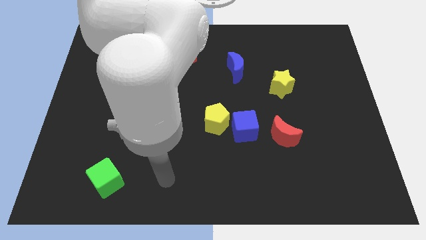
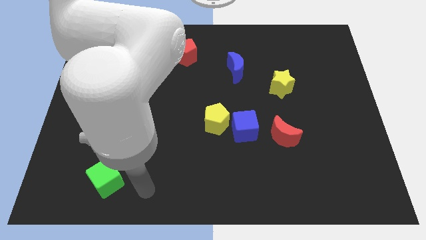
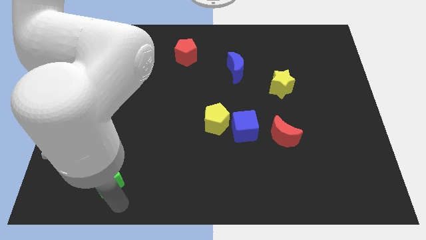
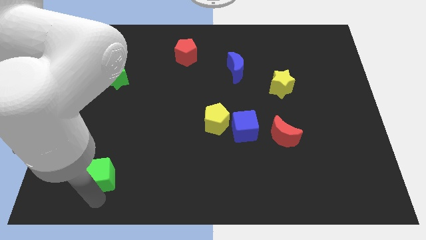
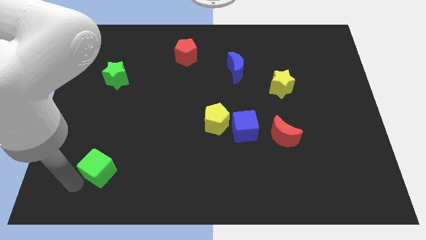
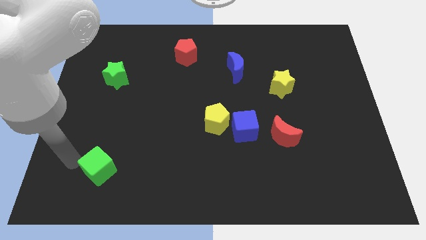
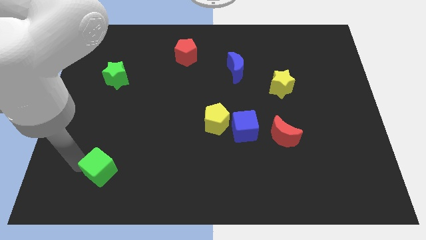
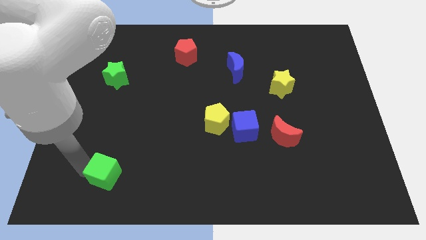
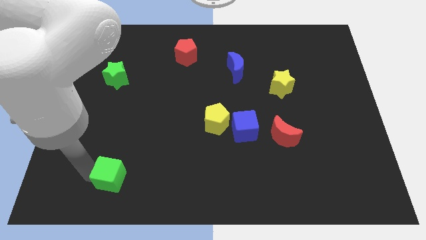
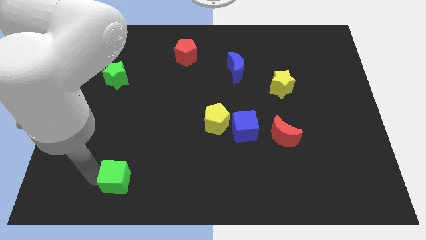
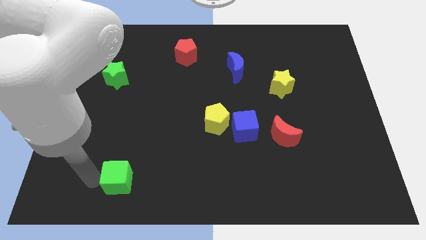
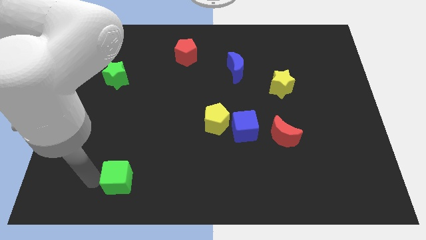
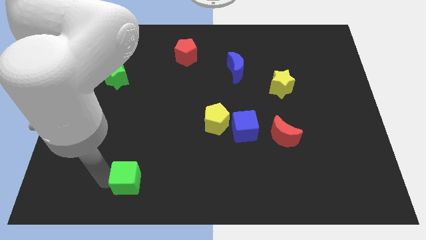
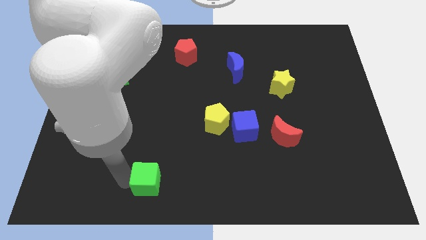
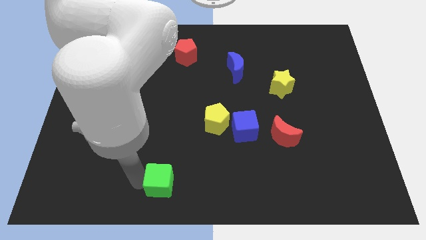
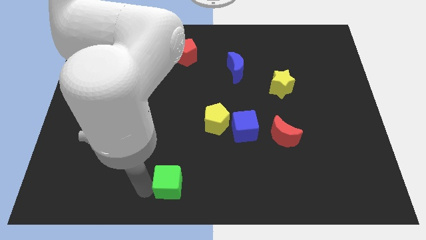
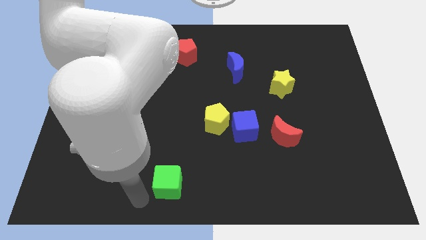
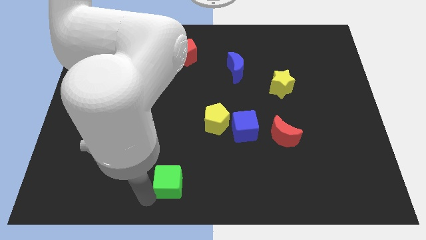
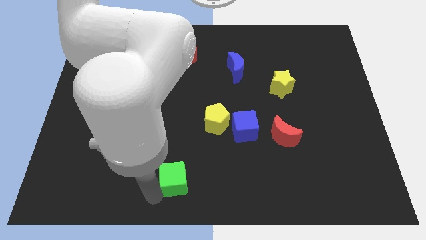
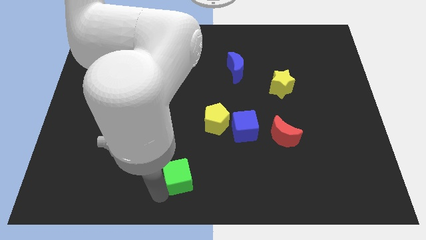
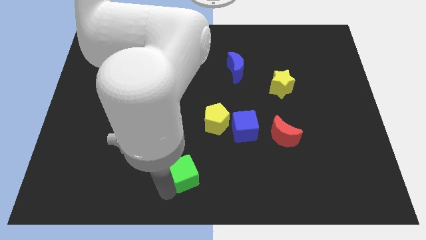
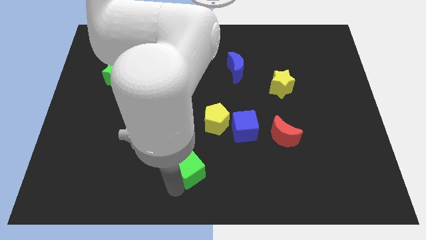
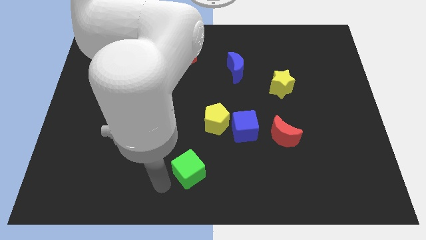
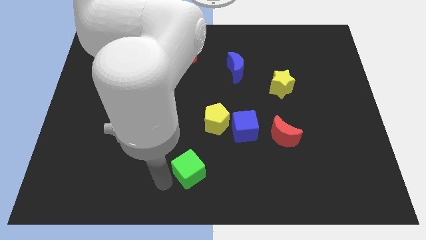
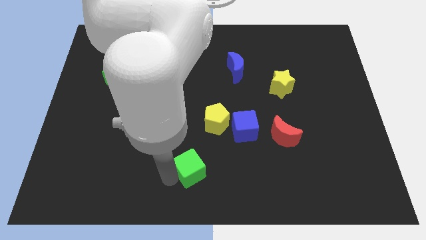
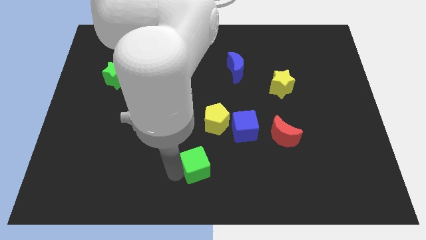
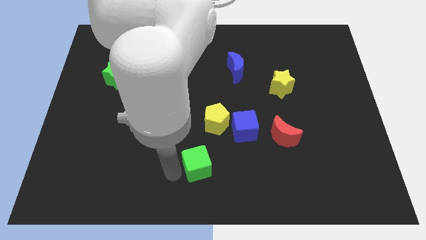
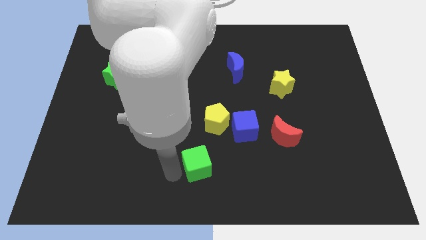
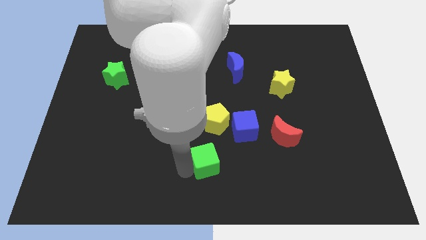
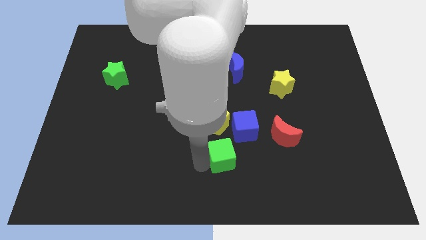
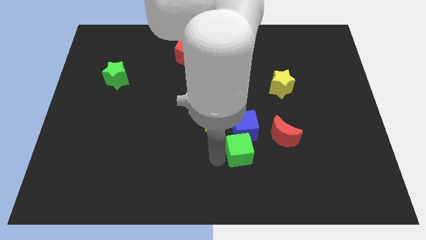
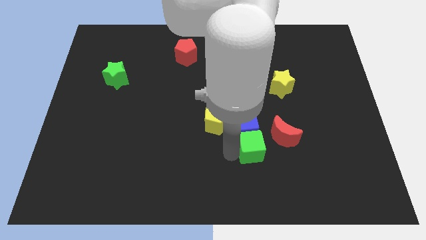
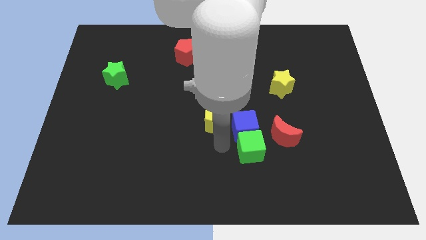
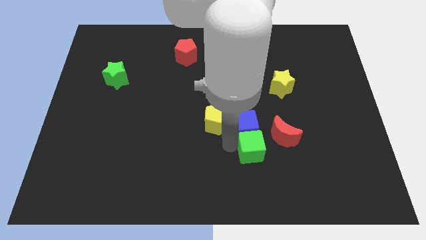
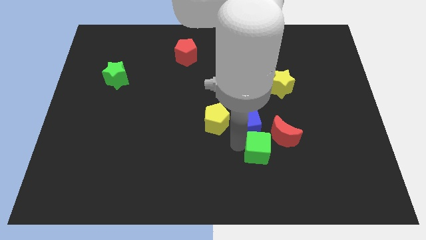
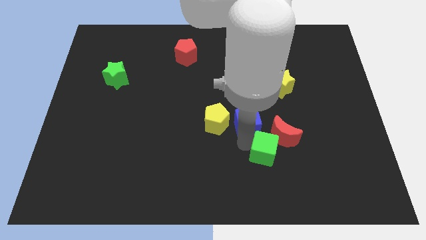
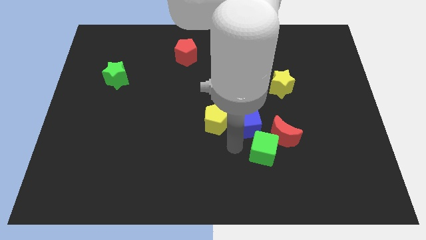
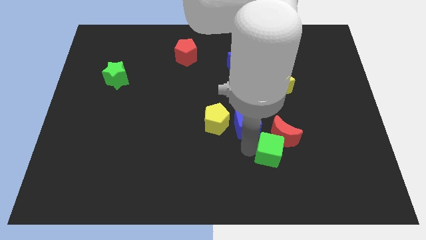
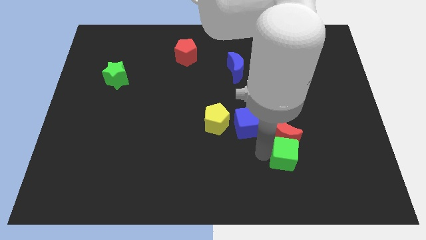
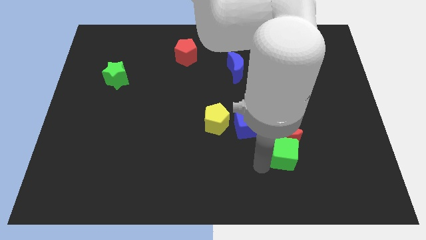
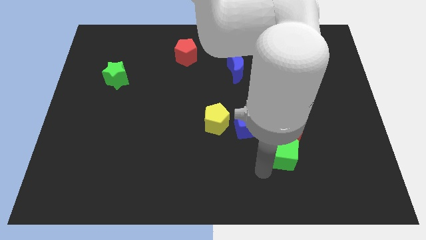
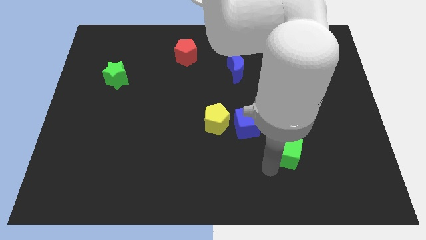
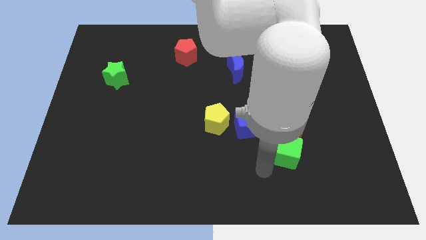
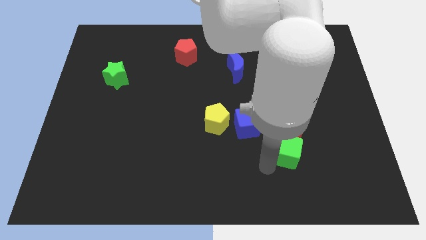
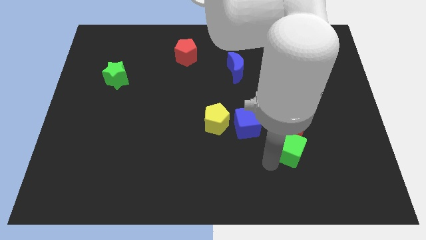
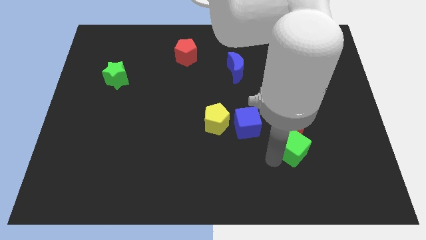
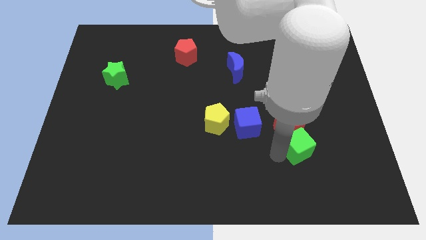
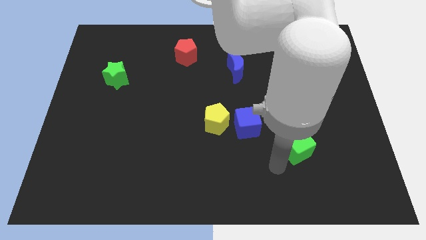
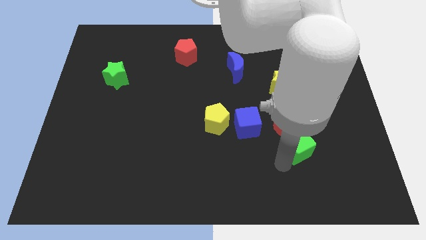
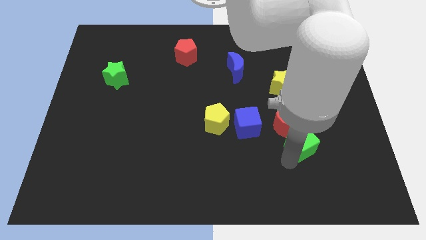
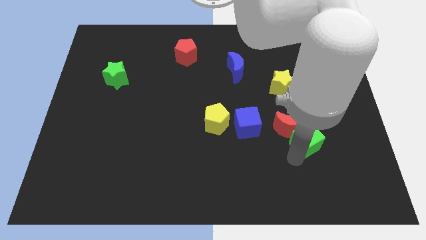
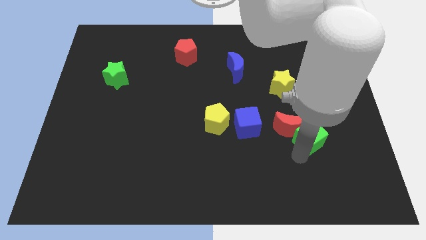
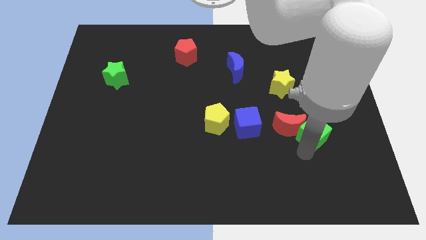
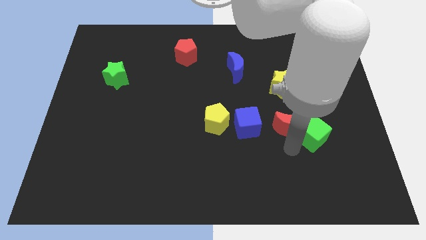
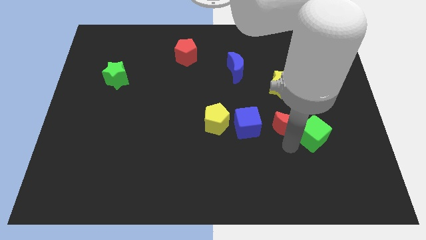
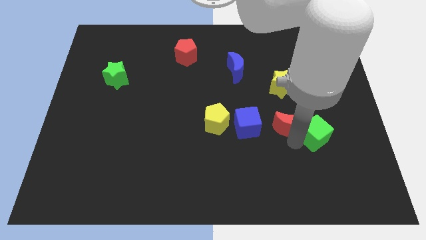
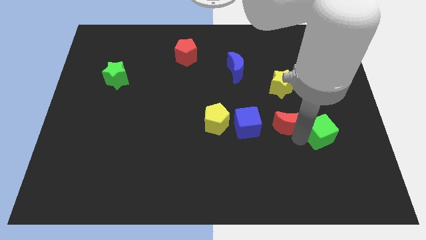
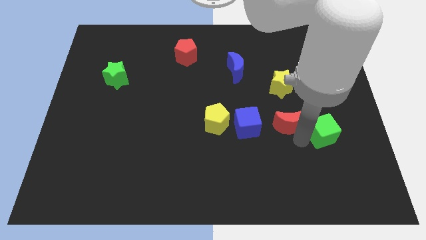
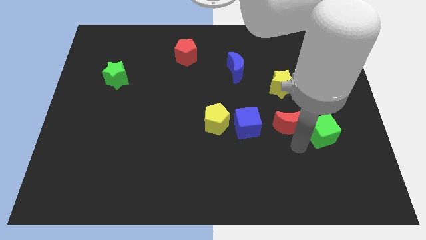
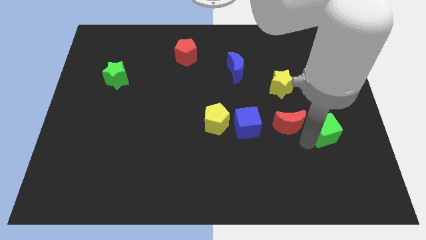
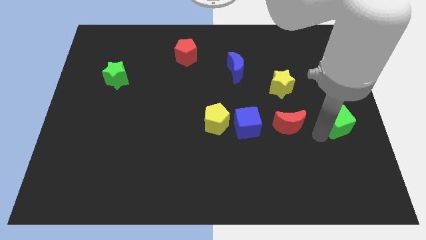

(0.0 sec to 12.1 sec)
move the green cube to the center right

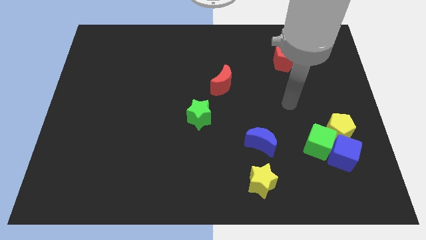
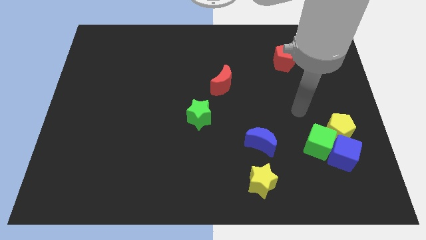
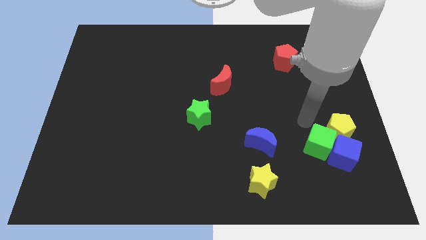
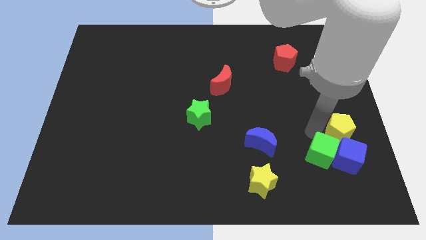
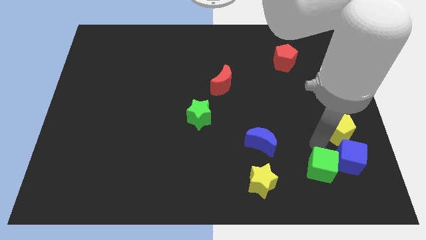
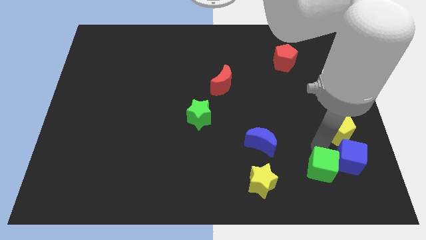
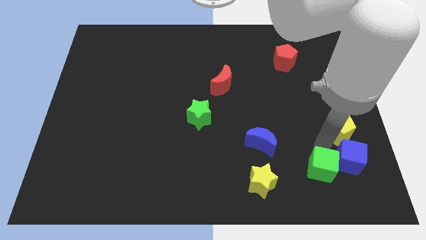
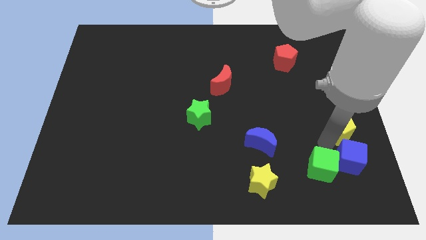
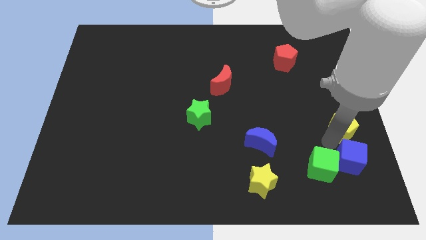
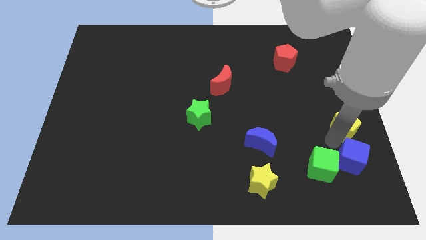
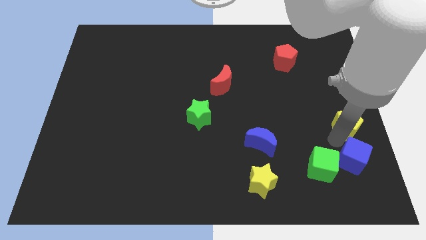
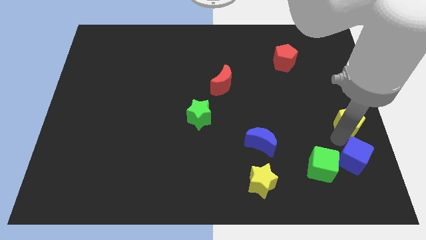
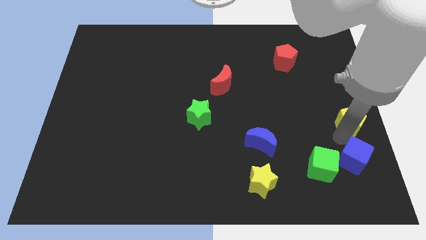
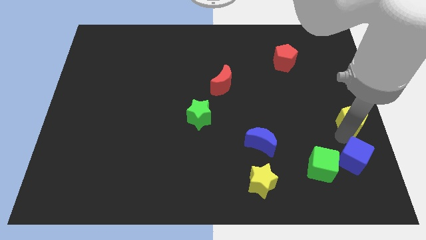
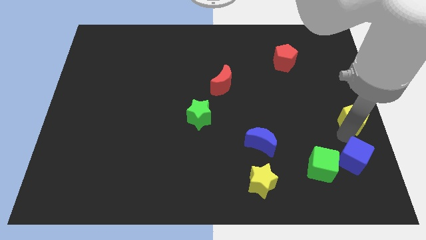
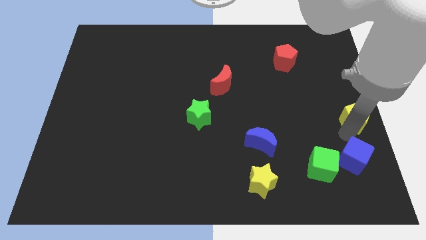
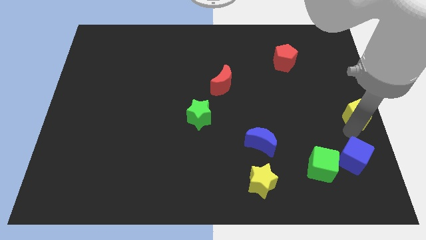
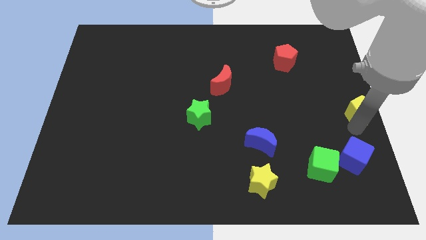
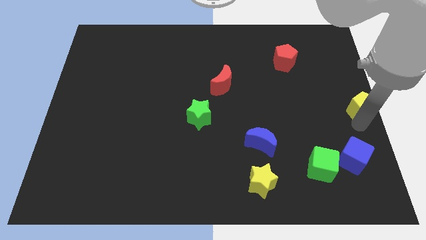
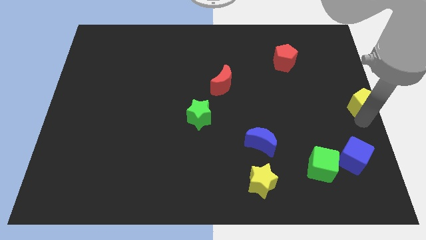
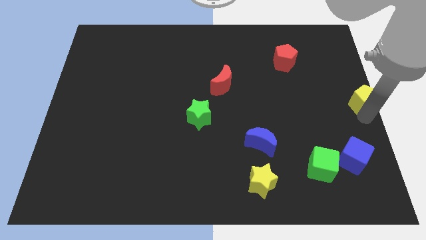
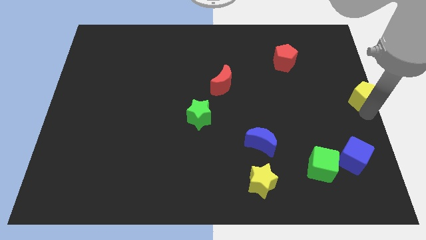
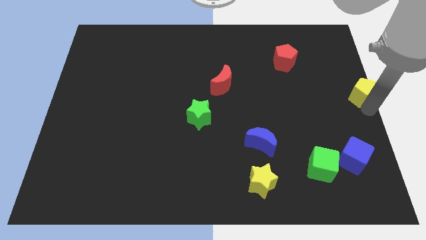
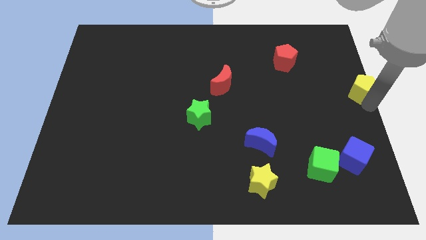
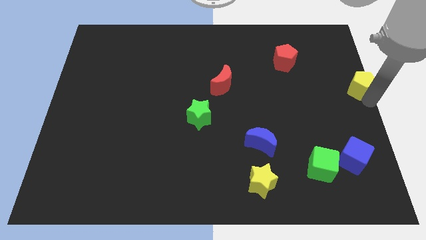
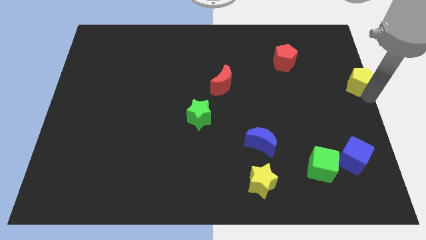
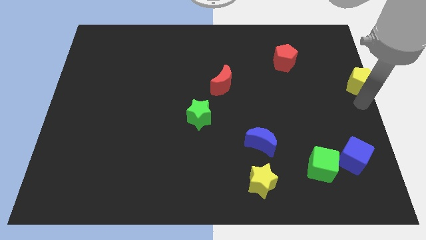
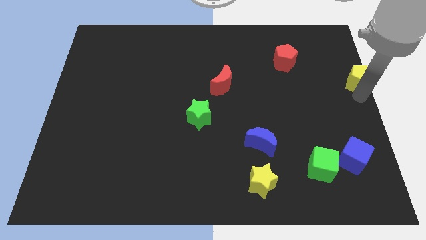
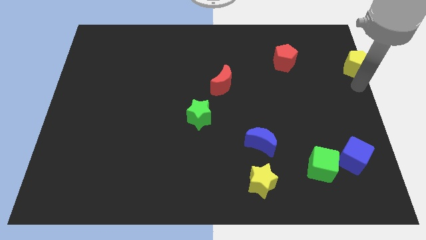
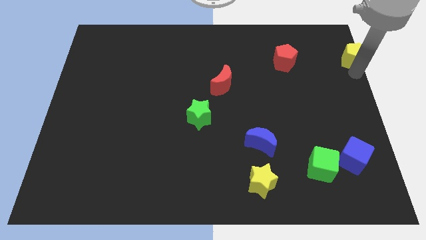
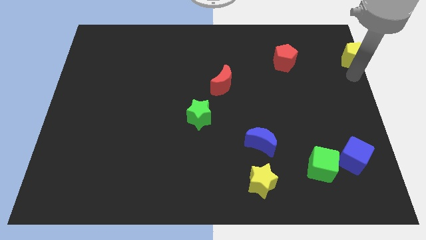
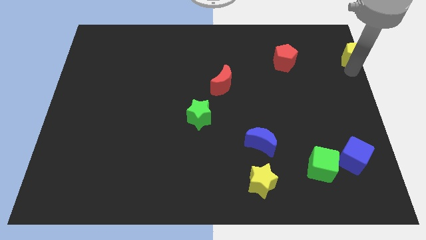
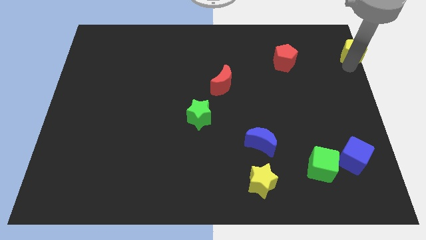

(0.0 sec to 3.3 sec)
move the yellow pentagon to the top right
